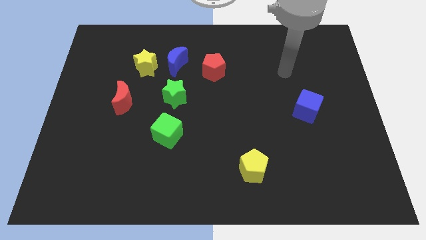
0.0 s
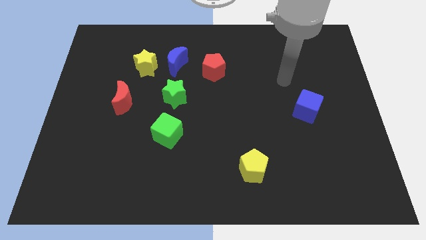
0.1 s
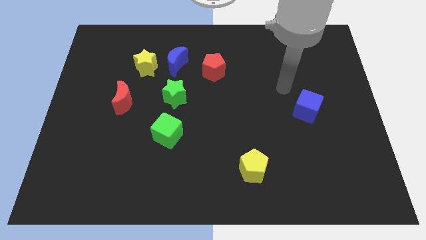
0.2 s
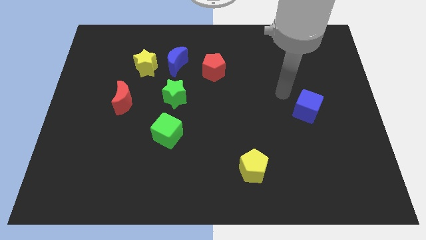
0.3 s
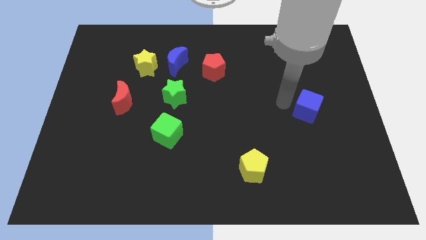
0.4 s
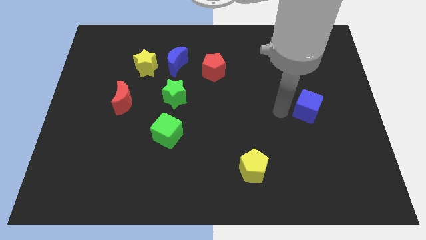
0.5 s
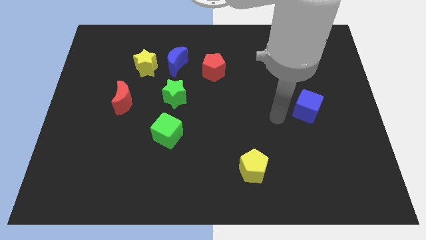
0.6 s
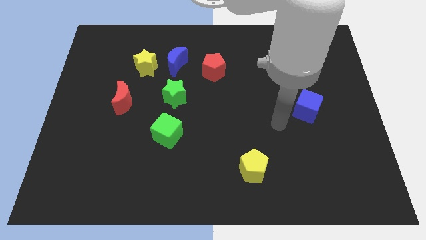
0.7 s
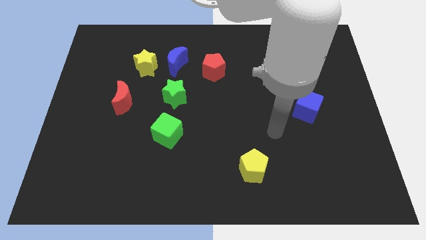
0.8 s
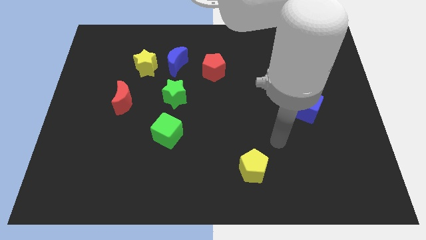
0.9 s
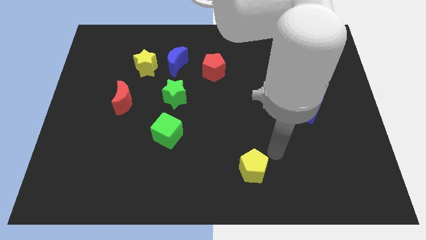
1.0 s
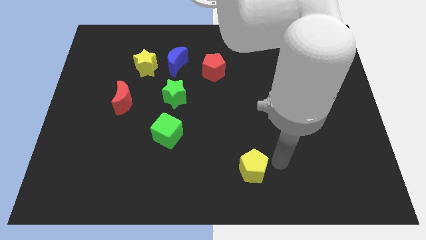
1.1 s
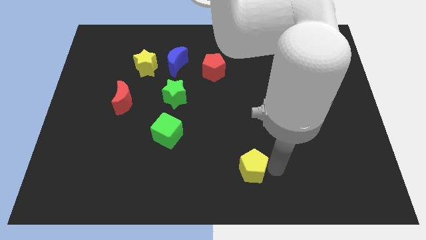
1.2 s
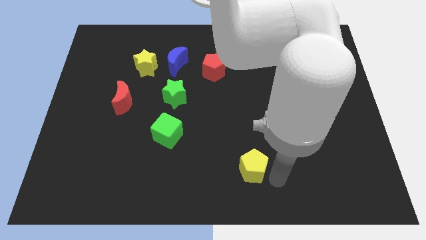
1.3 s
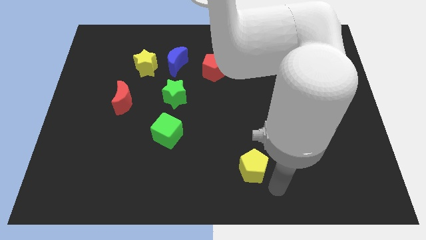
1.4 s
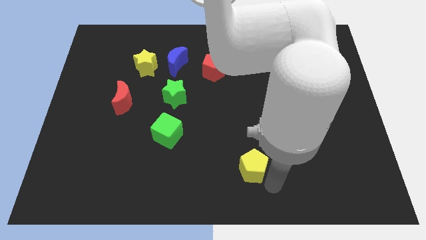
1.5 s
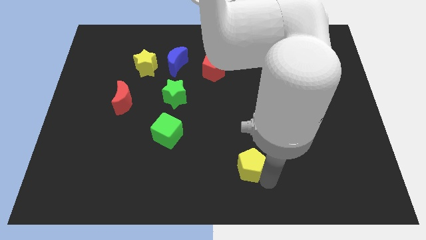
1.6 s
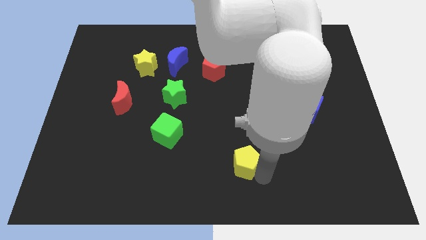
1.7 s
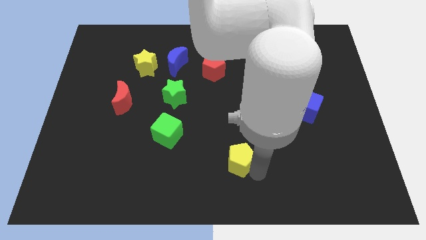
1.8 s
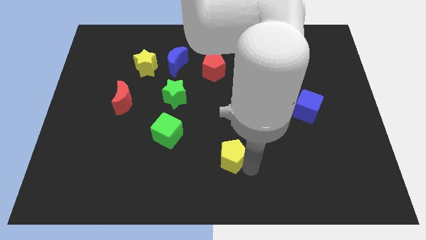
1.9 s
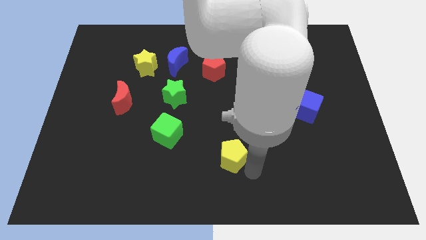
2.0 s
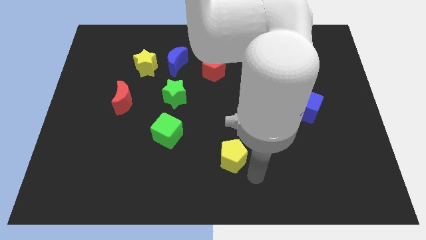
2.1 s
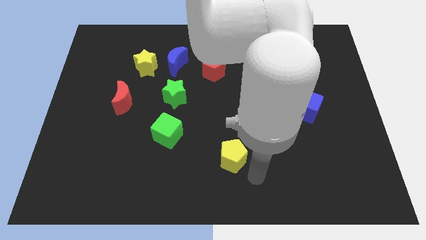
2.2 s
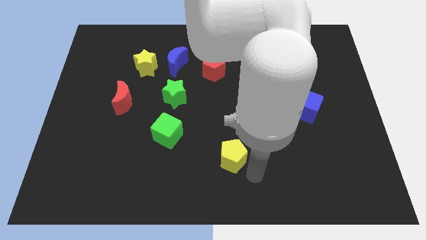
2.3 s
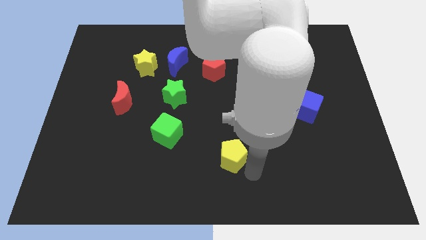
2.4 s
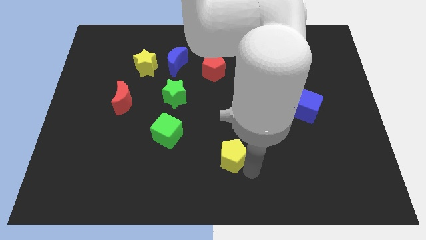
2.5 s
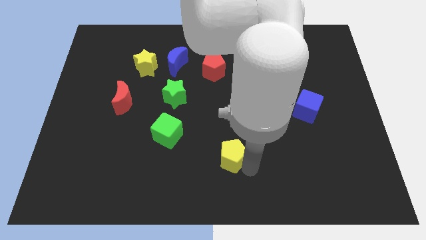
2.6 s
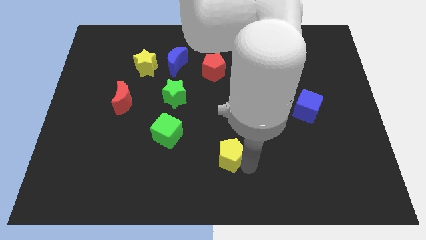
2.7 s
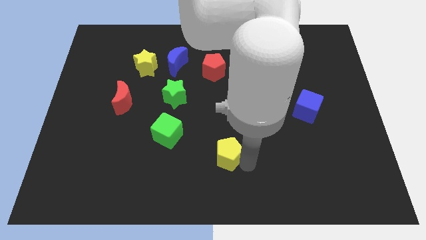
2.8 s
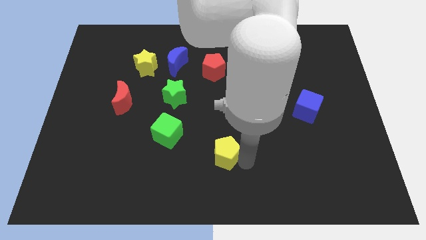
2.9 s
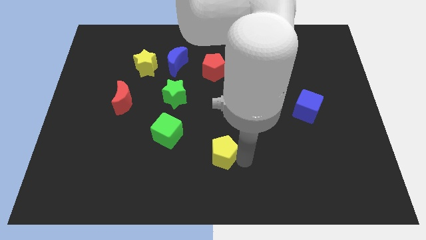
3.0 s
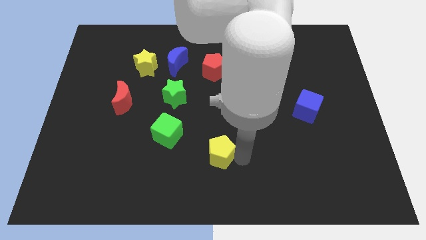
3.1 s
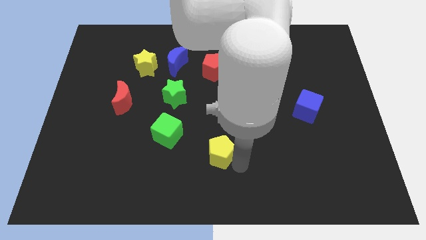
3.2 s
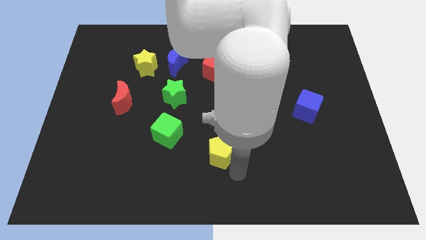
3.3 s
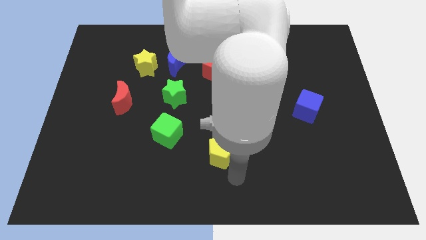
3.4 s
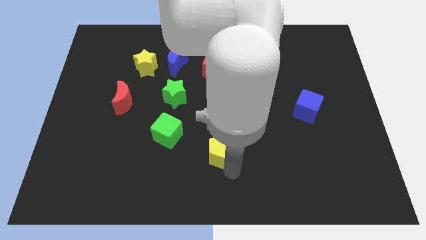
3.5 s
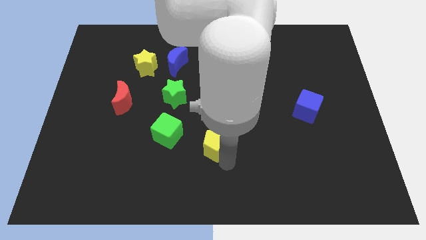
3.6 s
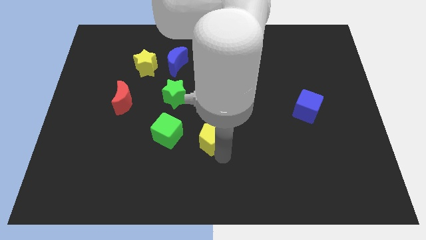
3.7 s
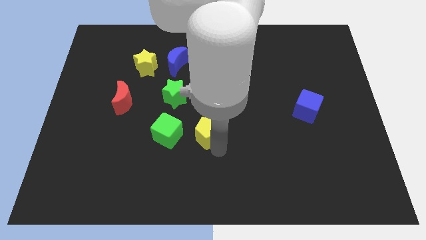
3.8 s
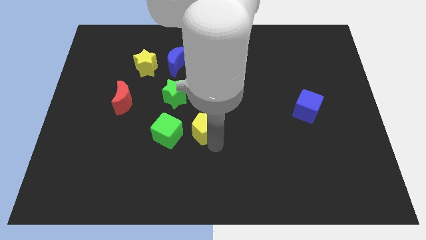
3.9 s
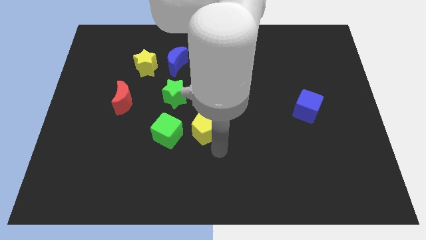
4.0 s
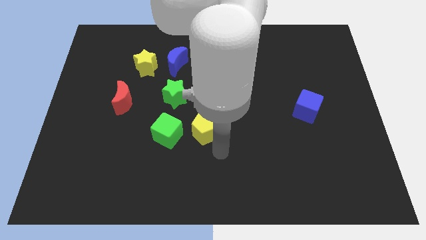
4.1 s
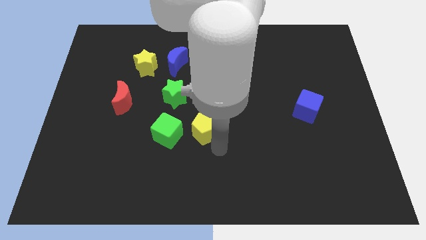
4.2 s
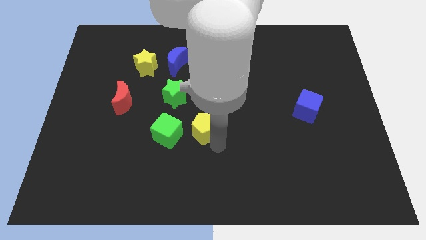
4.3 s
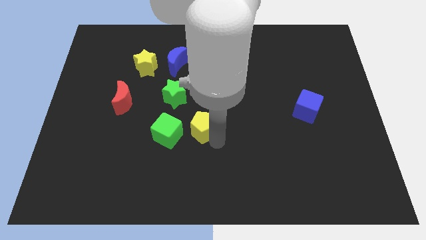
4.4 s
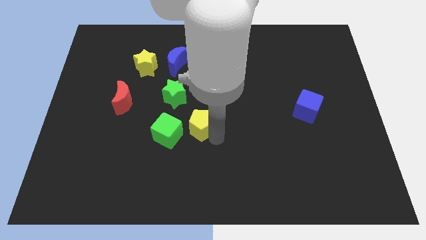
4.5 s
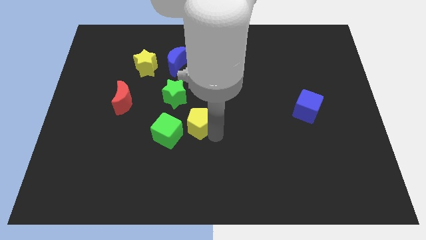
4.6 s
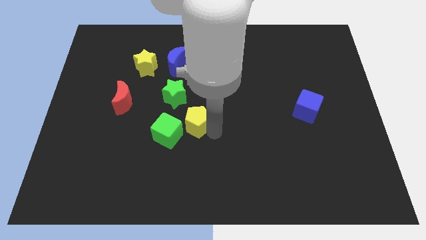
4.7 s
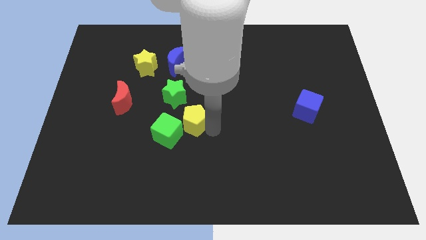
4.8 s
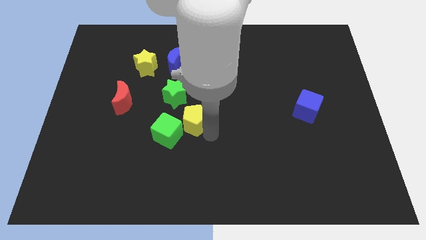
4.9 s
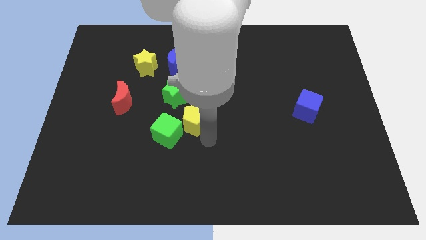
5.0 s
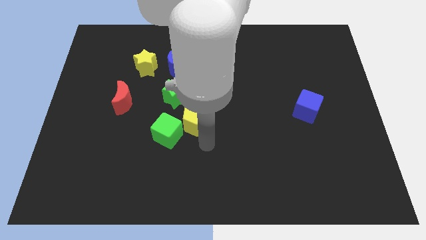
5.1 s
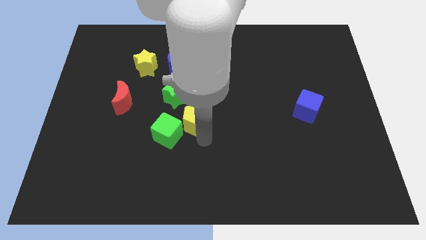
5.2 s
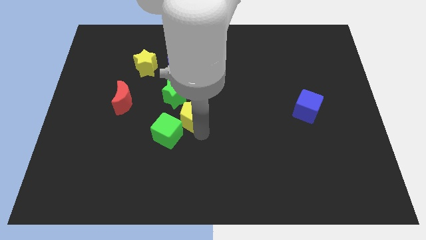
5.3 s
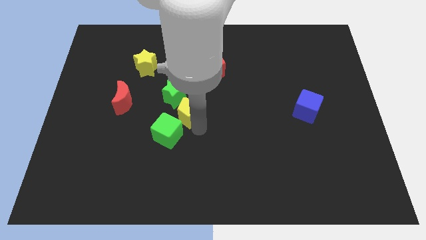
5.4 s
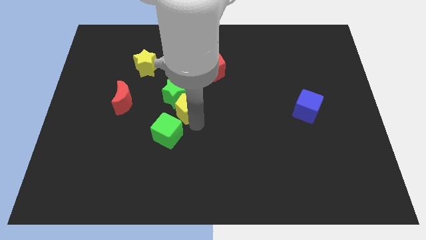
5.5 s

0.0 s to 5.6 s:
put the yellow pentagon to the green star

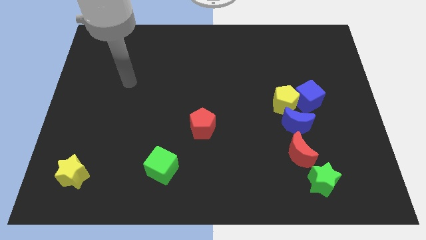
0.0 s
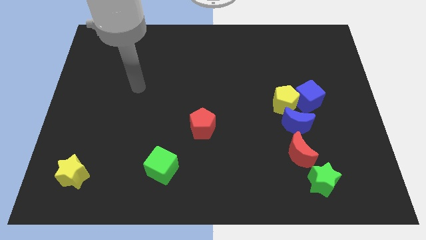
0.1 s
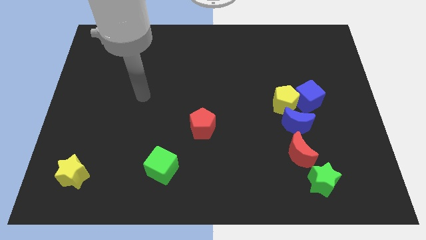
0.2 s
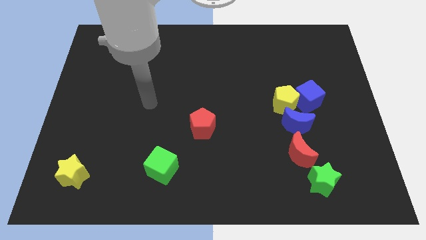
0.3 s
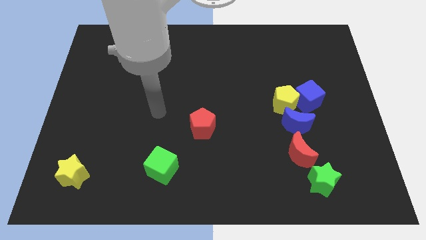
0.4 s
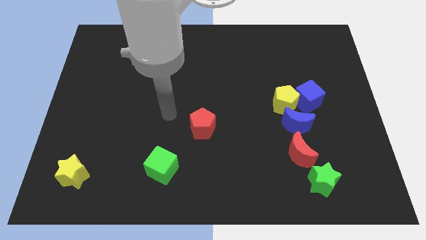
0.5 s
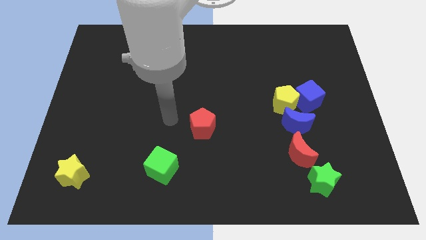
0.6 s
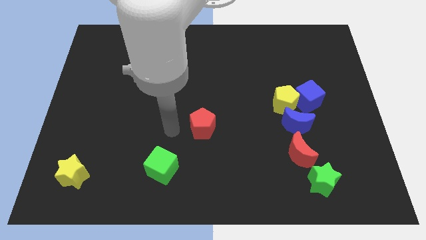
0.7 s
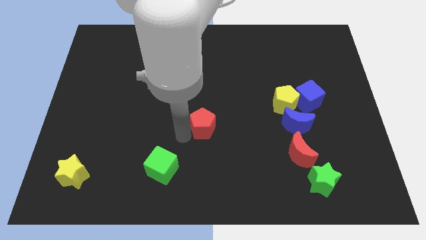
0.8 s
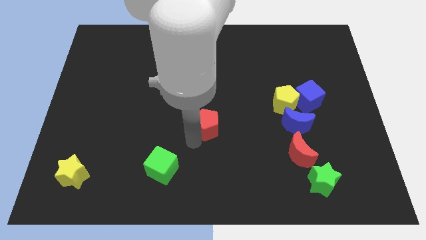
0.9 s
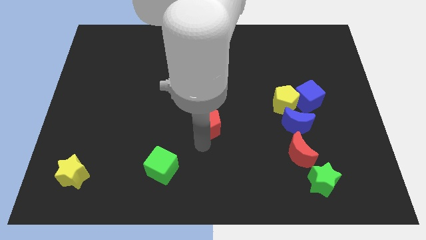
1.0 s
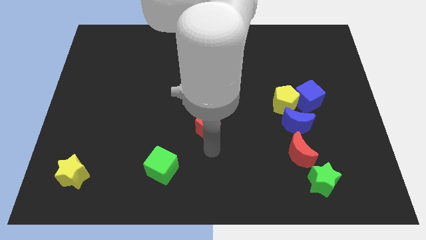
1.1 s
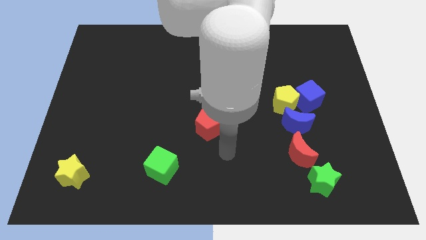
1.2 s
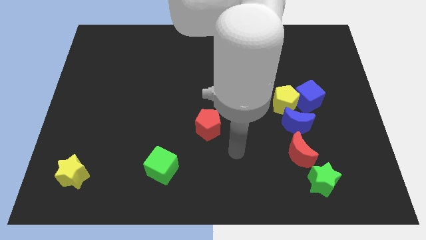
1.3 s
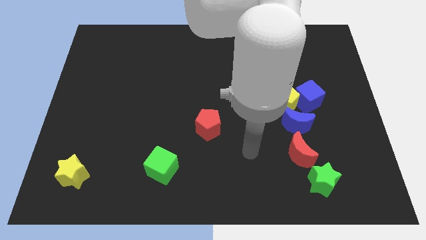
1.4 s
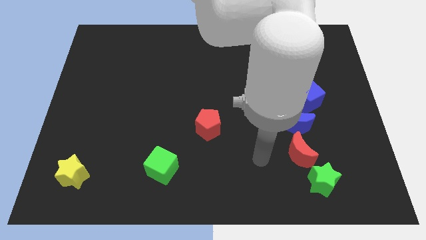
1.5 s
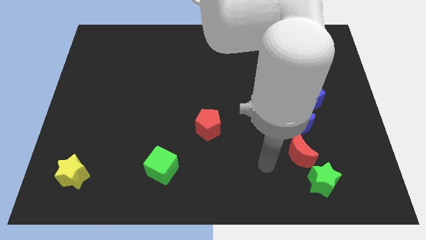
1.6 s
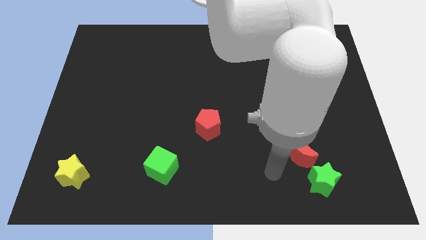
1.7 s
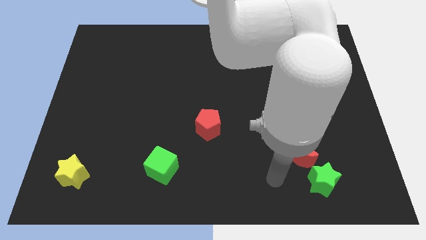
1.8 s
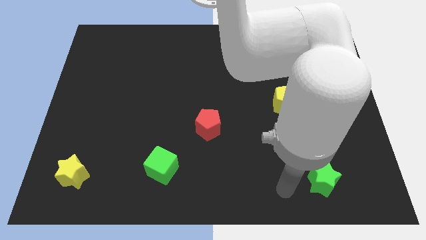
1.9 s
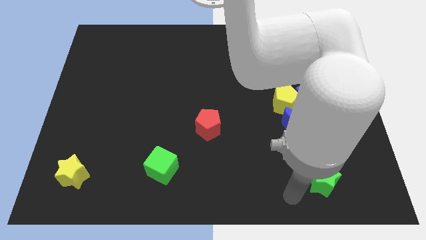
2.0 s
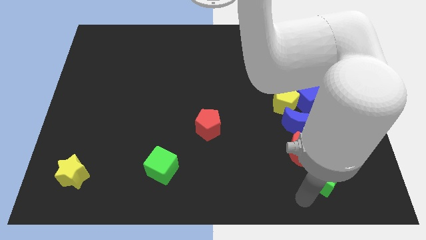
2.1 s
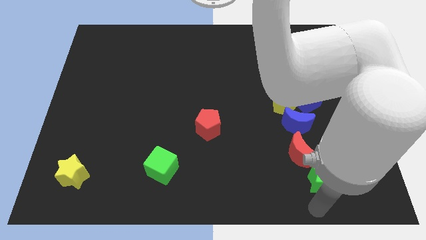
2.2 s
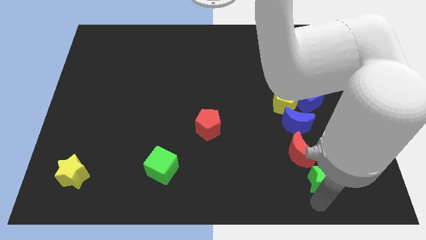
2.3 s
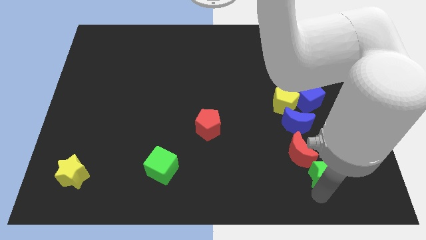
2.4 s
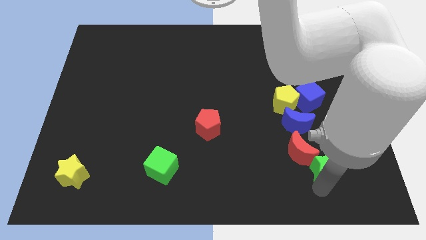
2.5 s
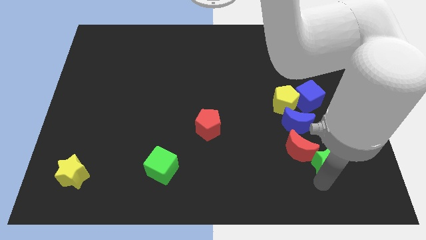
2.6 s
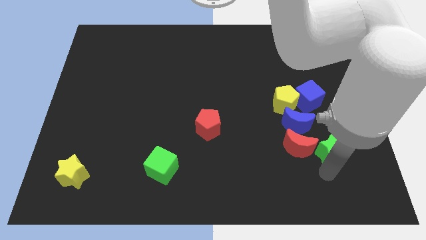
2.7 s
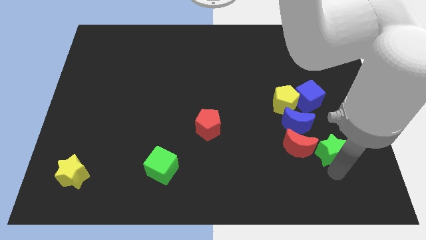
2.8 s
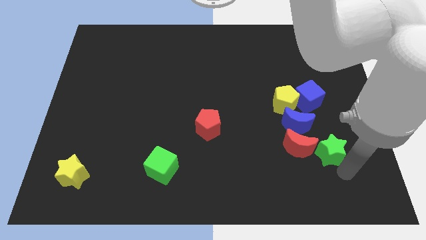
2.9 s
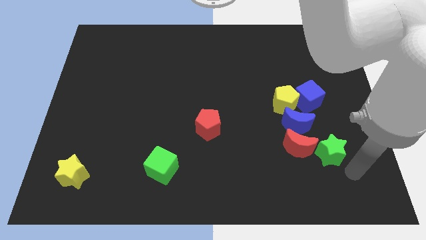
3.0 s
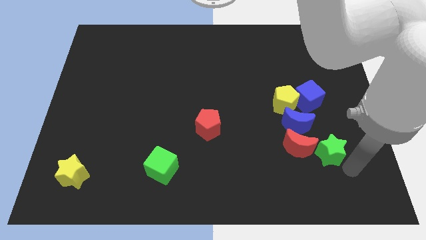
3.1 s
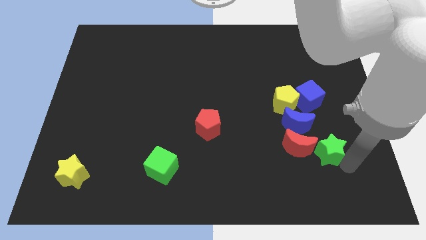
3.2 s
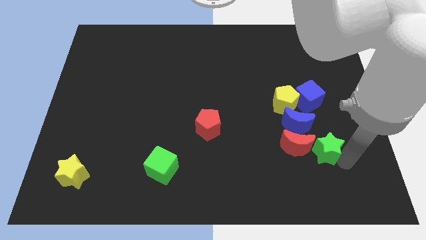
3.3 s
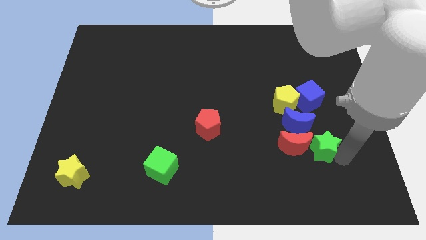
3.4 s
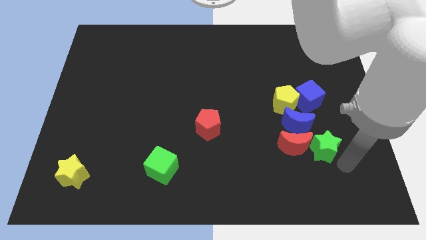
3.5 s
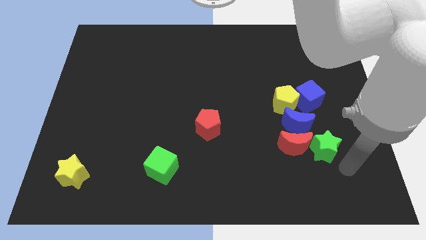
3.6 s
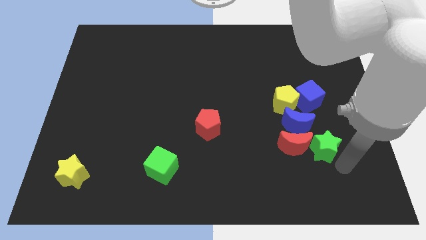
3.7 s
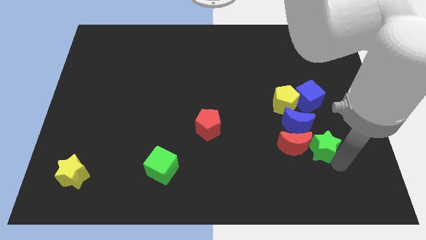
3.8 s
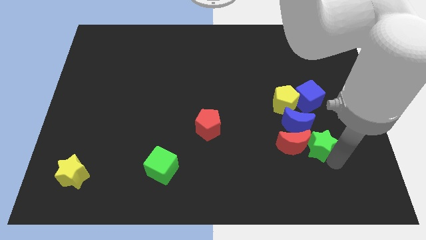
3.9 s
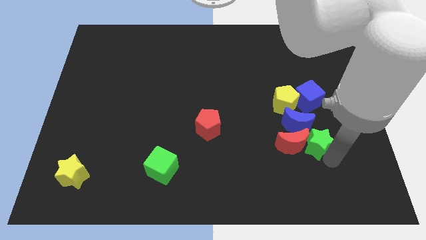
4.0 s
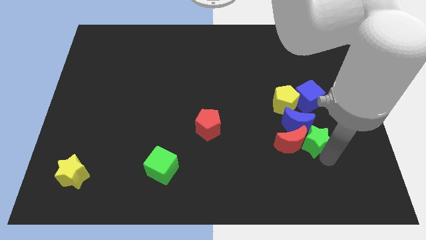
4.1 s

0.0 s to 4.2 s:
put the green star towards the blue moon
